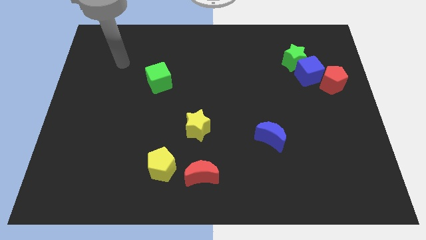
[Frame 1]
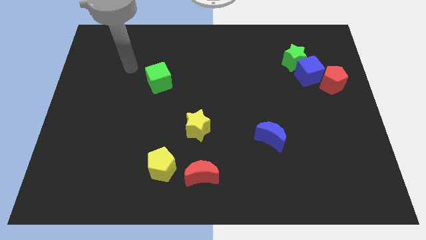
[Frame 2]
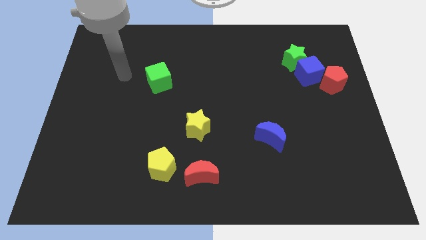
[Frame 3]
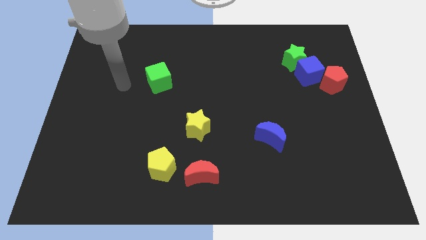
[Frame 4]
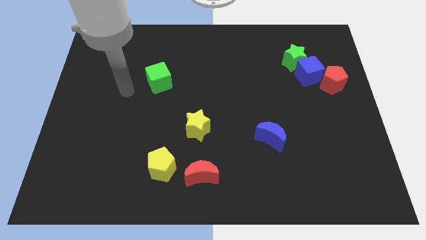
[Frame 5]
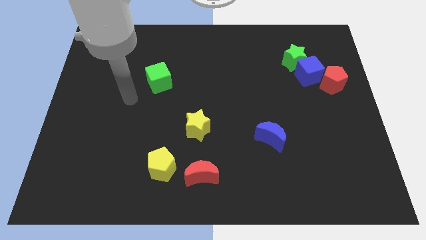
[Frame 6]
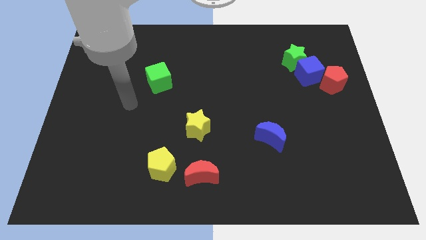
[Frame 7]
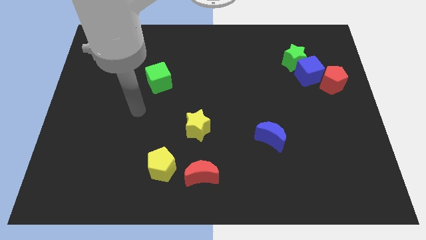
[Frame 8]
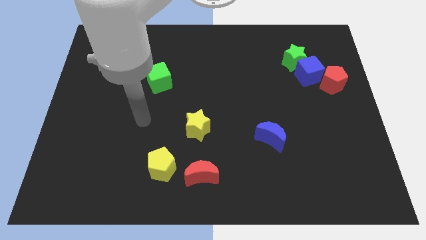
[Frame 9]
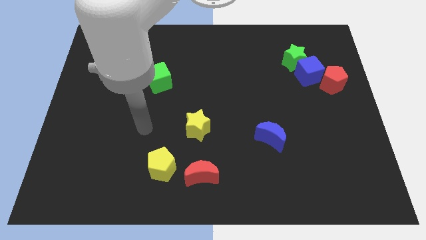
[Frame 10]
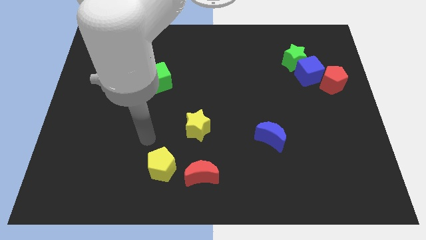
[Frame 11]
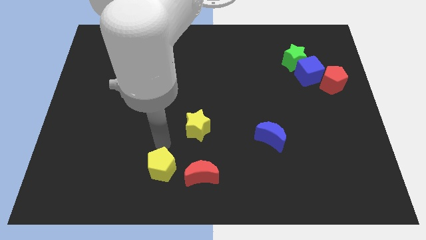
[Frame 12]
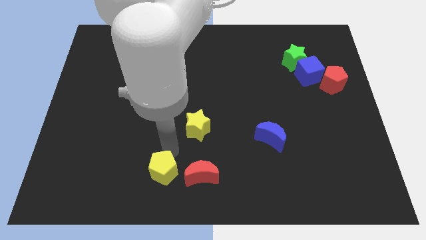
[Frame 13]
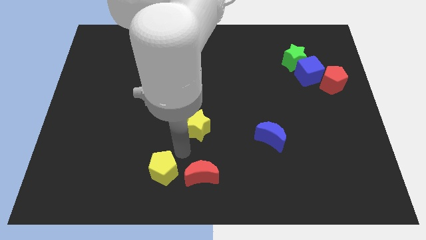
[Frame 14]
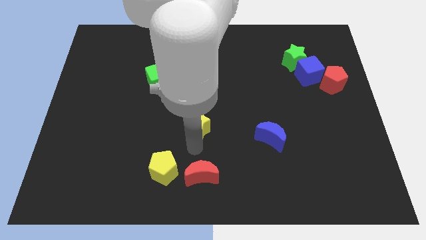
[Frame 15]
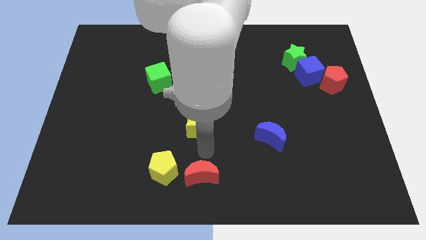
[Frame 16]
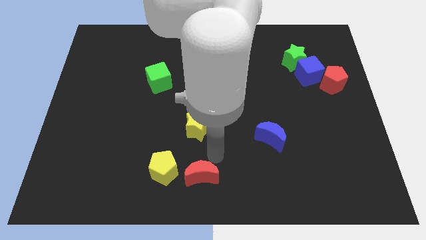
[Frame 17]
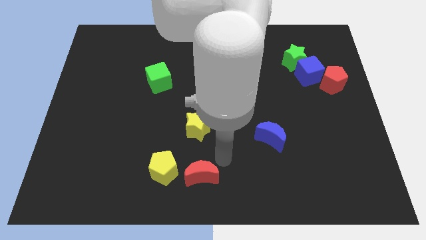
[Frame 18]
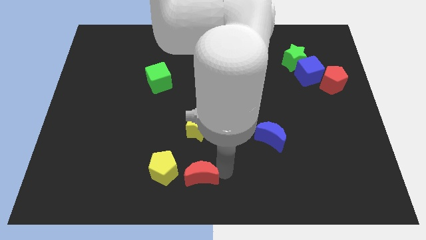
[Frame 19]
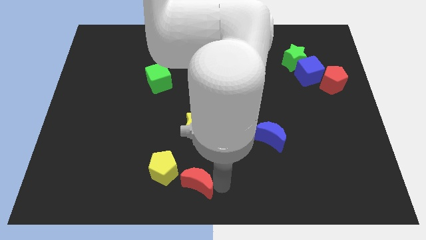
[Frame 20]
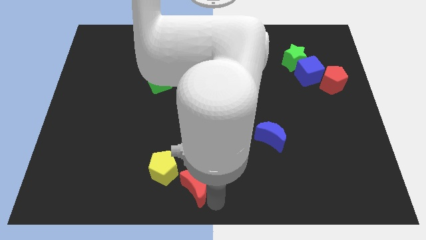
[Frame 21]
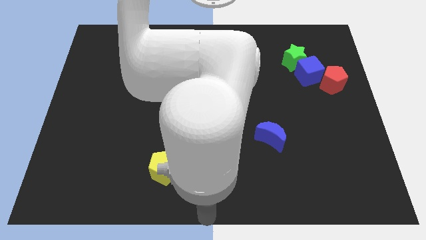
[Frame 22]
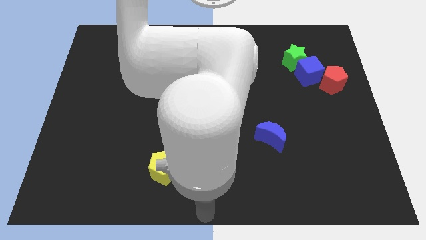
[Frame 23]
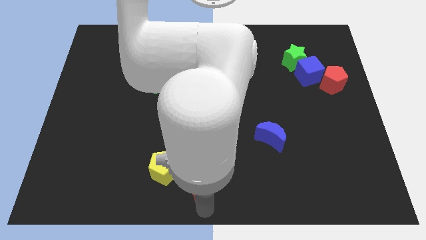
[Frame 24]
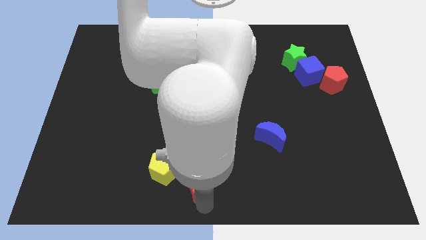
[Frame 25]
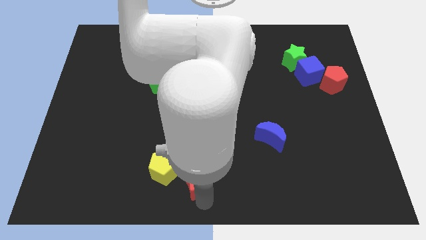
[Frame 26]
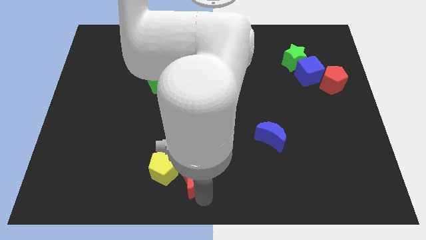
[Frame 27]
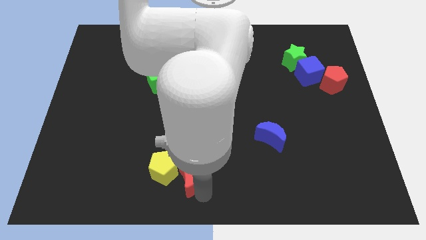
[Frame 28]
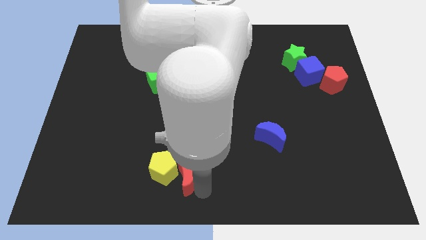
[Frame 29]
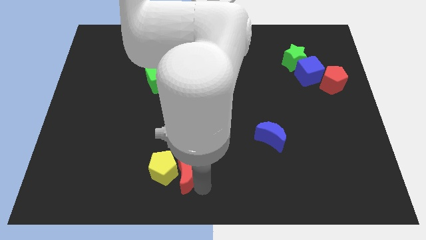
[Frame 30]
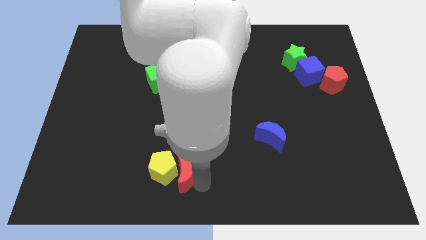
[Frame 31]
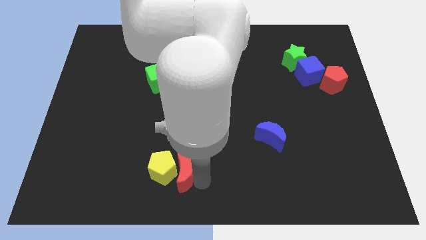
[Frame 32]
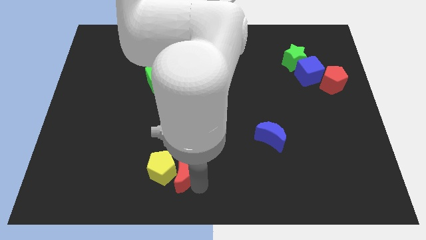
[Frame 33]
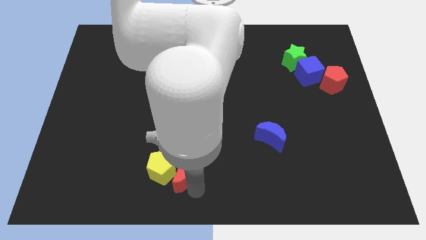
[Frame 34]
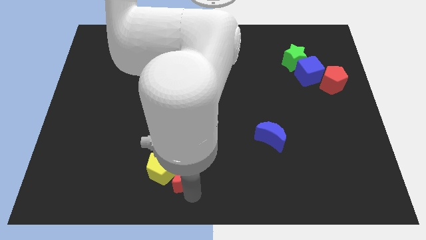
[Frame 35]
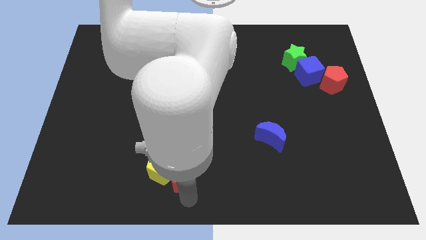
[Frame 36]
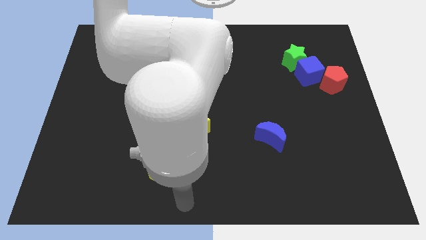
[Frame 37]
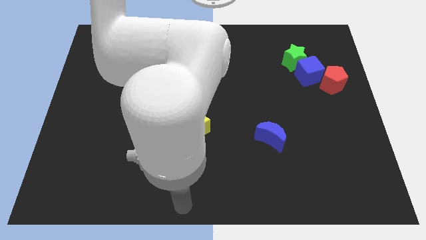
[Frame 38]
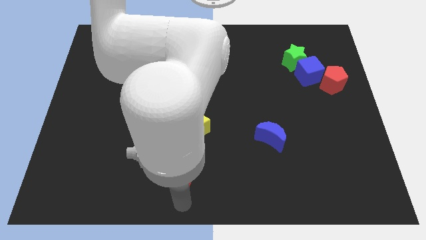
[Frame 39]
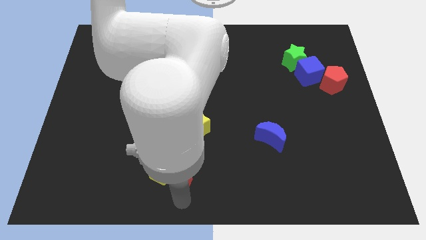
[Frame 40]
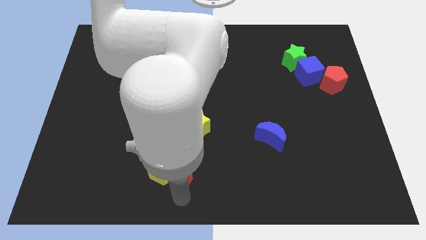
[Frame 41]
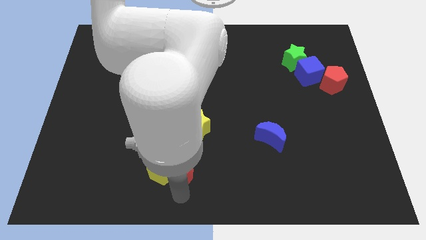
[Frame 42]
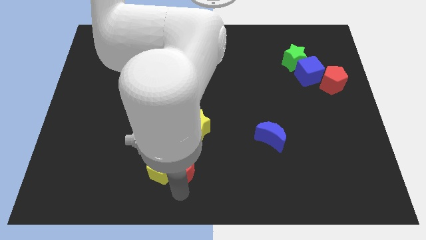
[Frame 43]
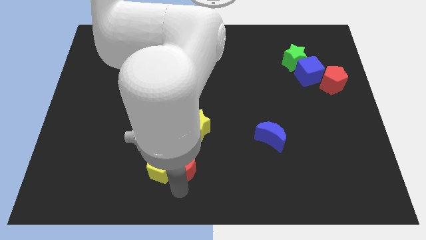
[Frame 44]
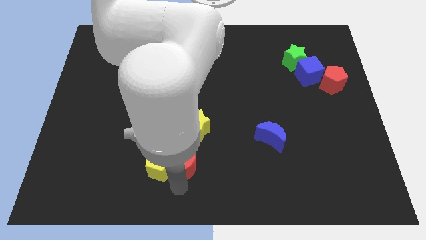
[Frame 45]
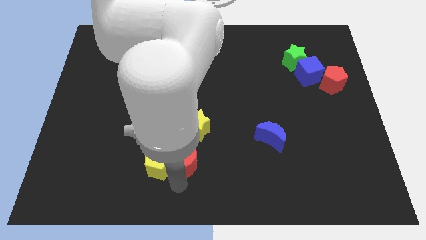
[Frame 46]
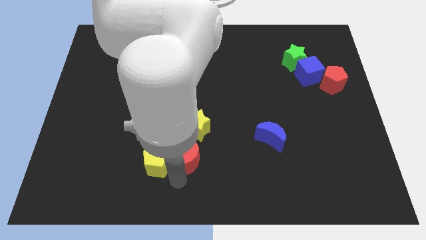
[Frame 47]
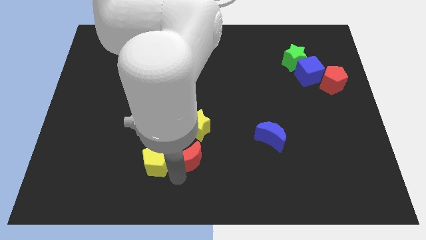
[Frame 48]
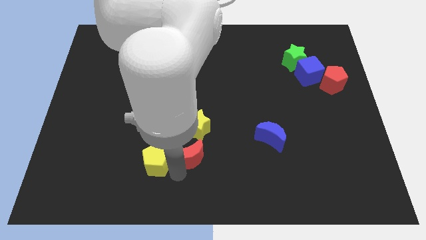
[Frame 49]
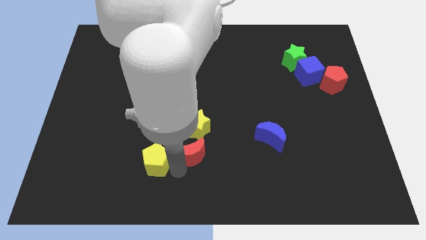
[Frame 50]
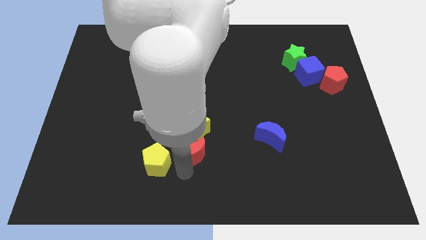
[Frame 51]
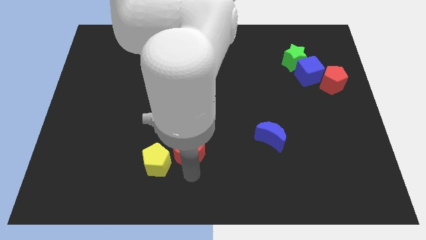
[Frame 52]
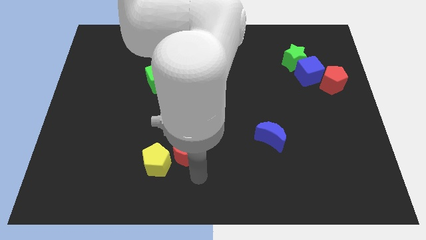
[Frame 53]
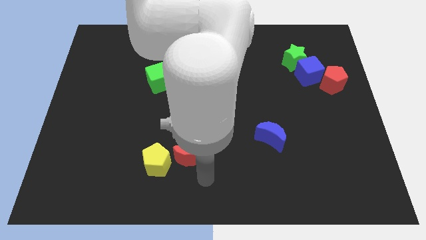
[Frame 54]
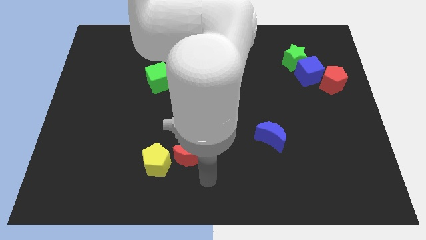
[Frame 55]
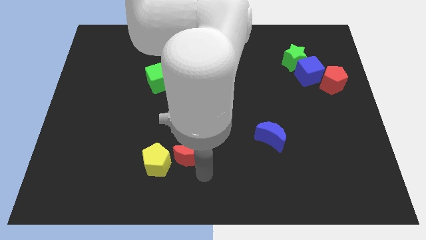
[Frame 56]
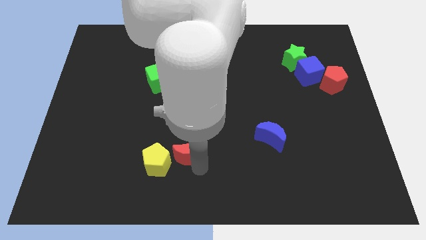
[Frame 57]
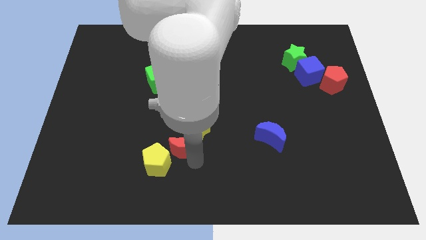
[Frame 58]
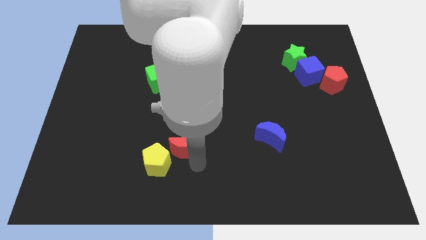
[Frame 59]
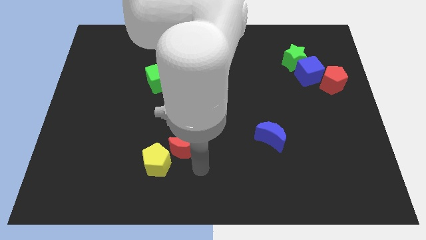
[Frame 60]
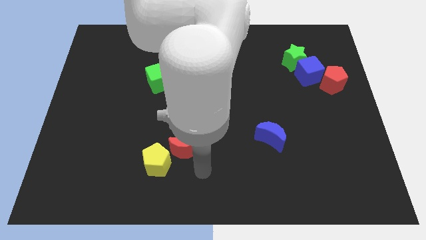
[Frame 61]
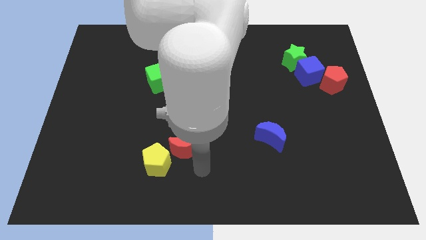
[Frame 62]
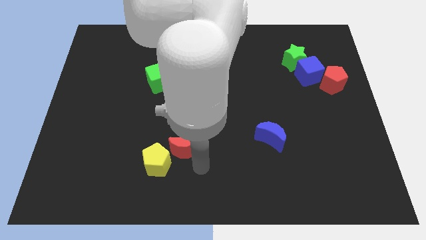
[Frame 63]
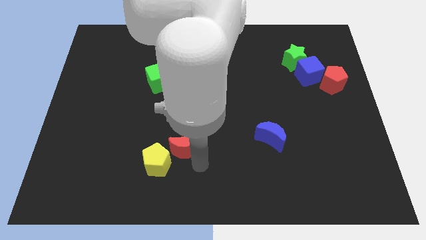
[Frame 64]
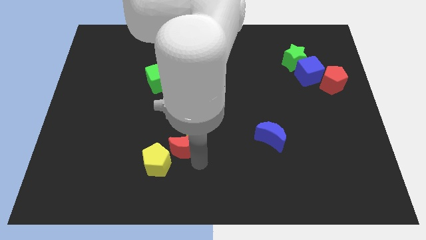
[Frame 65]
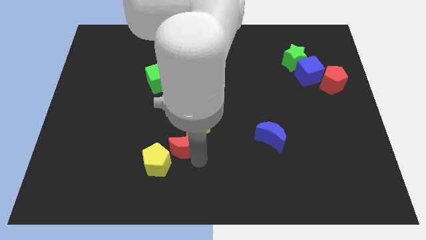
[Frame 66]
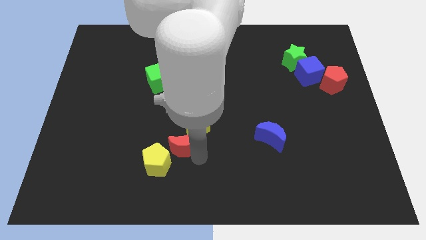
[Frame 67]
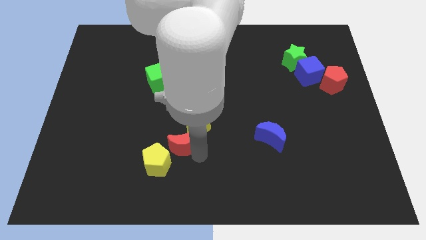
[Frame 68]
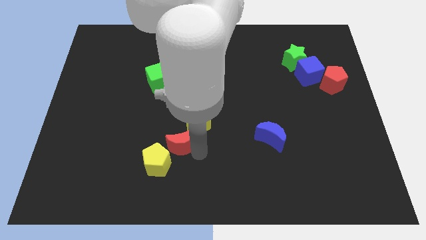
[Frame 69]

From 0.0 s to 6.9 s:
slightly move the red moon up

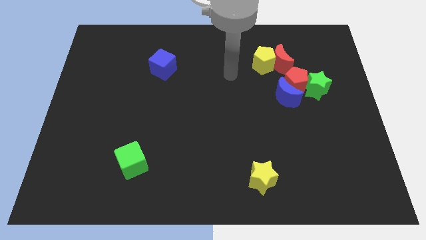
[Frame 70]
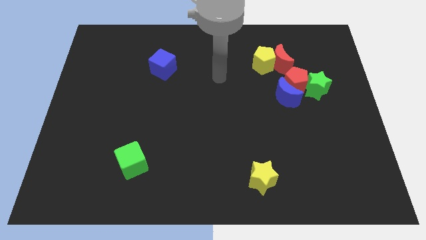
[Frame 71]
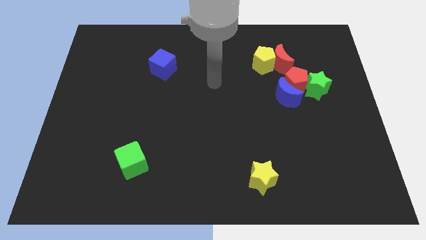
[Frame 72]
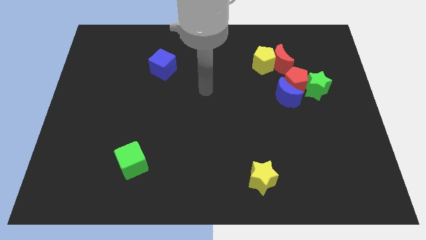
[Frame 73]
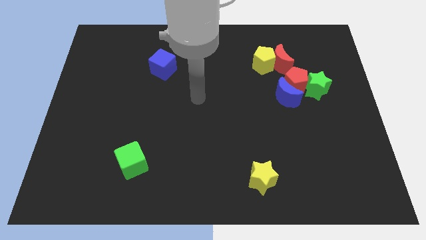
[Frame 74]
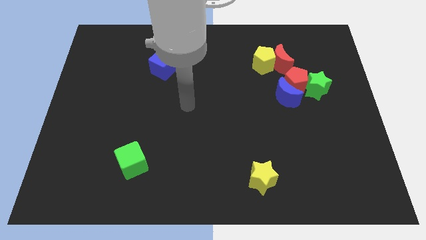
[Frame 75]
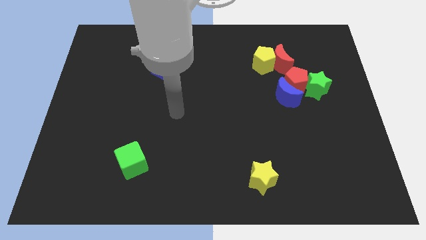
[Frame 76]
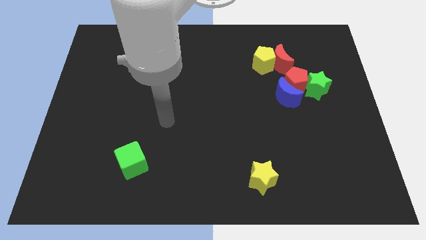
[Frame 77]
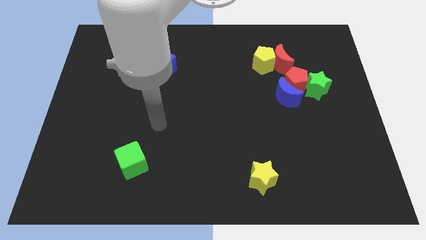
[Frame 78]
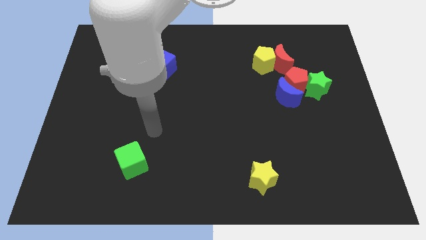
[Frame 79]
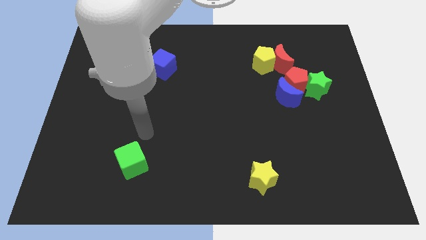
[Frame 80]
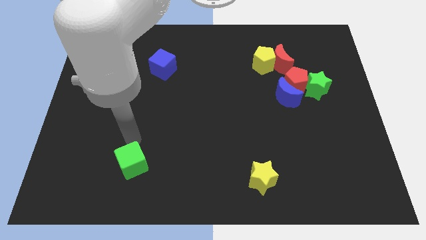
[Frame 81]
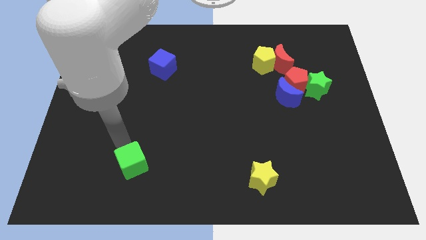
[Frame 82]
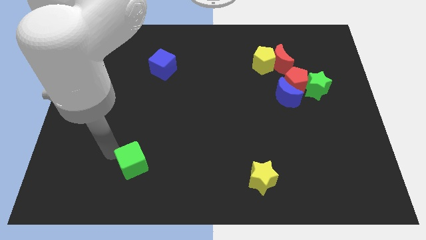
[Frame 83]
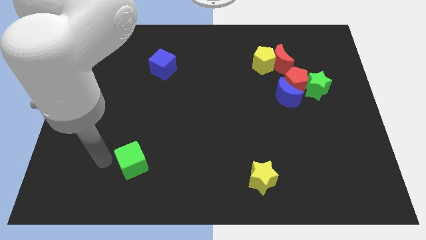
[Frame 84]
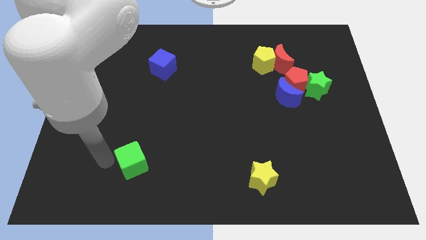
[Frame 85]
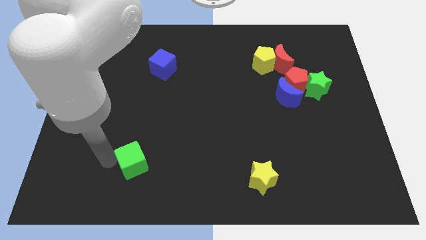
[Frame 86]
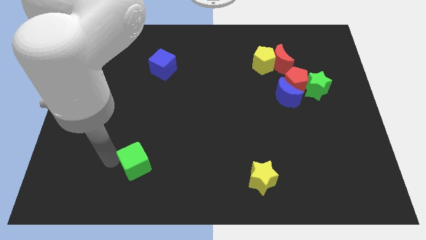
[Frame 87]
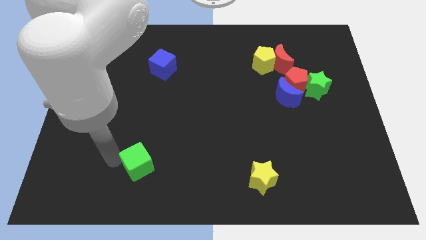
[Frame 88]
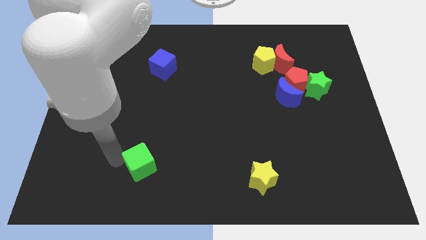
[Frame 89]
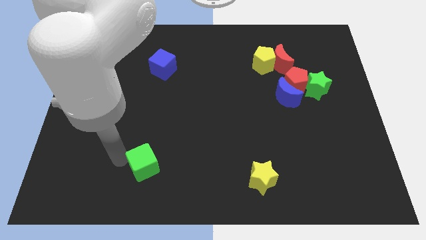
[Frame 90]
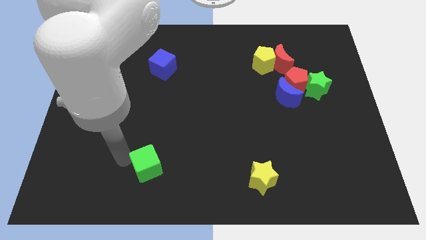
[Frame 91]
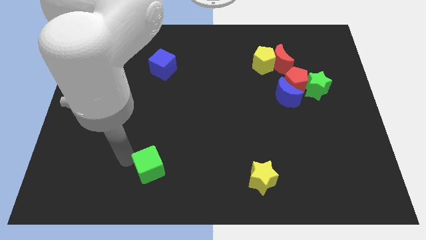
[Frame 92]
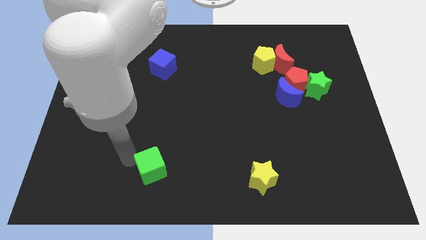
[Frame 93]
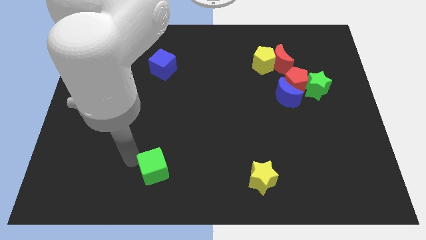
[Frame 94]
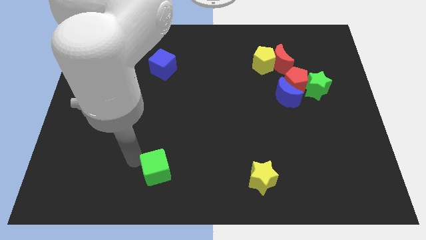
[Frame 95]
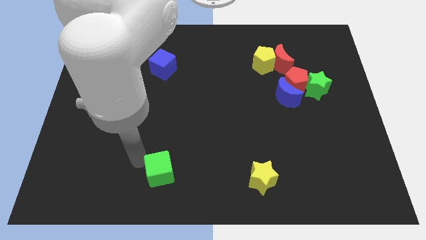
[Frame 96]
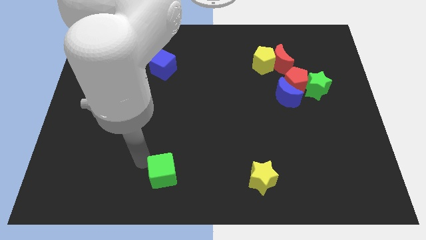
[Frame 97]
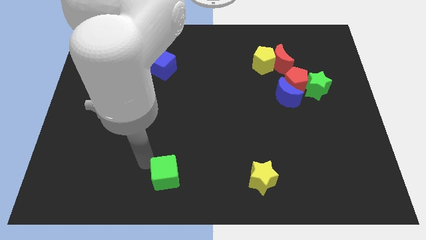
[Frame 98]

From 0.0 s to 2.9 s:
move the green cube right a bit
